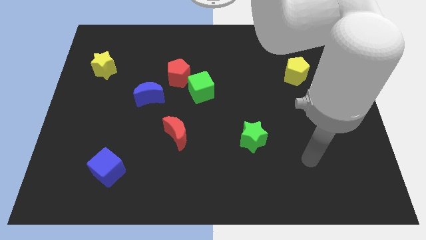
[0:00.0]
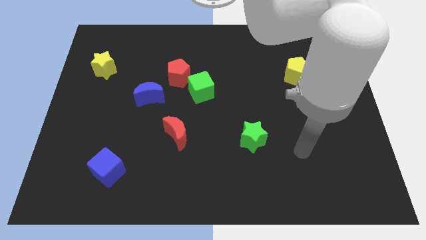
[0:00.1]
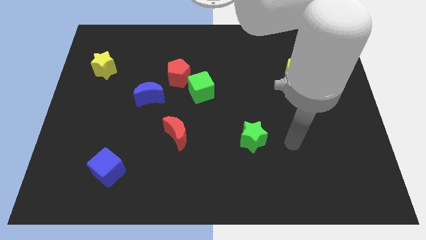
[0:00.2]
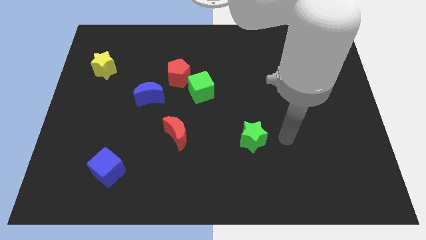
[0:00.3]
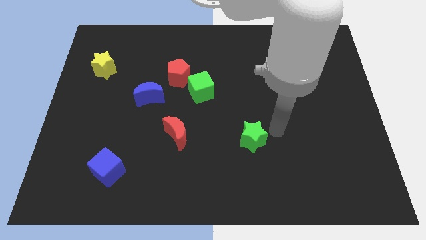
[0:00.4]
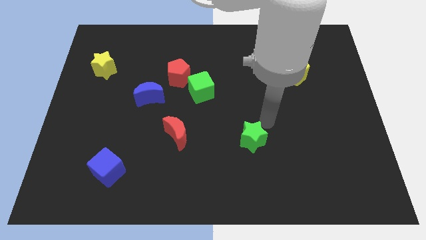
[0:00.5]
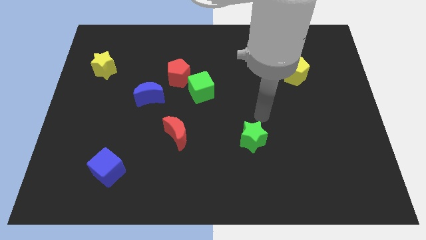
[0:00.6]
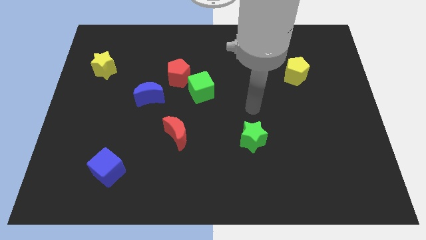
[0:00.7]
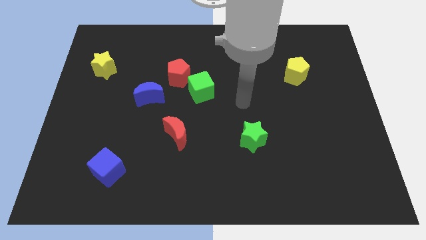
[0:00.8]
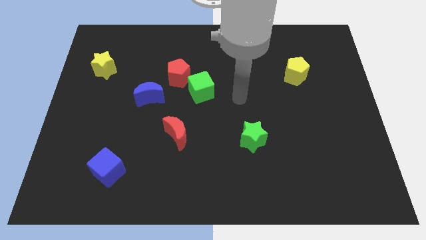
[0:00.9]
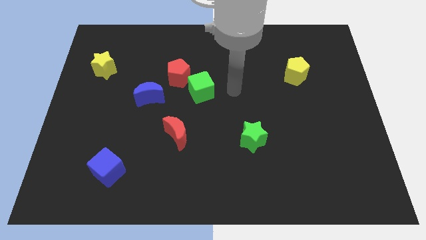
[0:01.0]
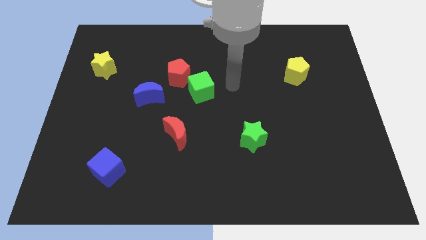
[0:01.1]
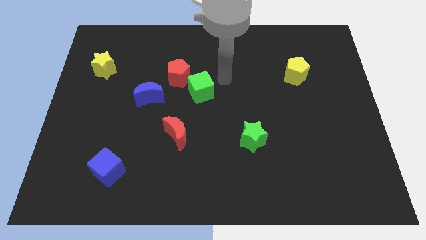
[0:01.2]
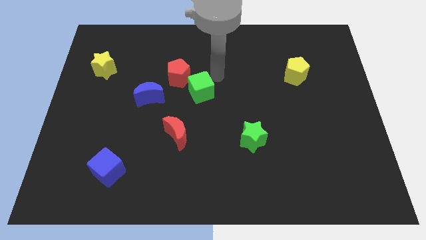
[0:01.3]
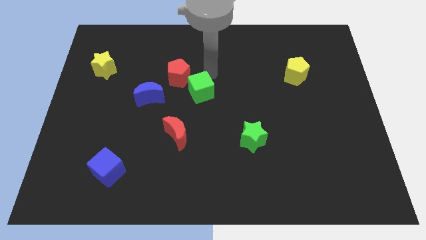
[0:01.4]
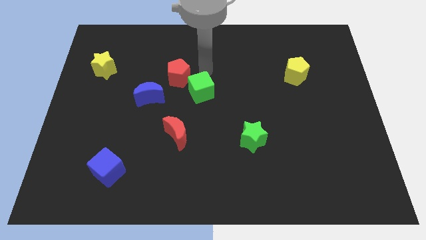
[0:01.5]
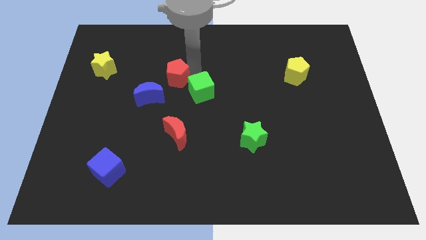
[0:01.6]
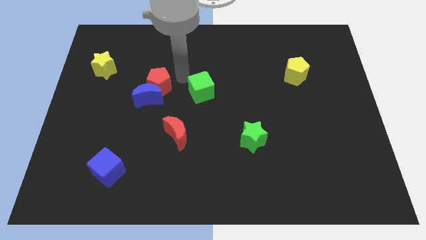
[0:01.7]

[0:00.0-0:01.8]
separate the green cube from the red pentagon

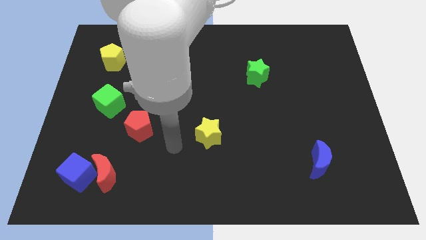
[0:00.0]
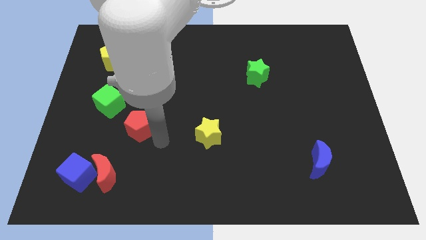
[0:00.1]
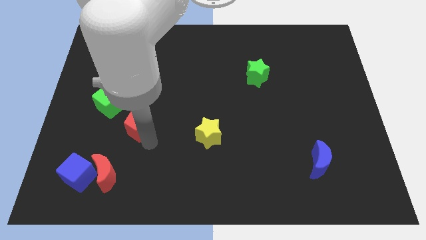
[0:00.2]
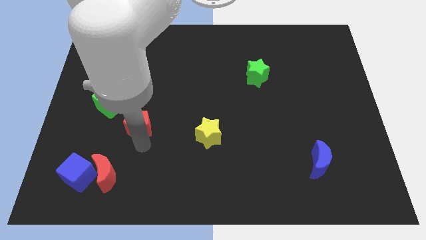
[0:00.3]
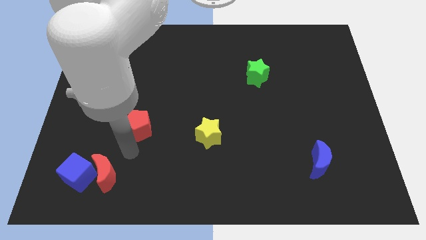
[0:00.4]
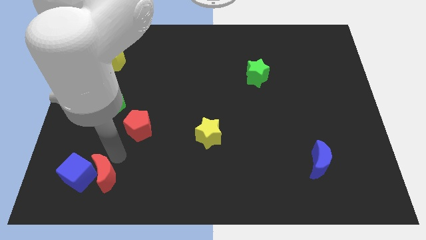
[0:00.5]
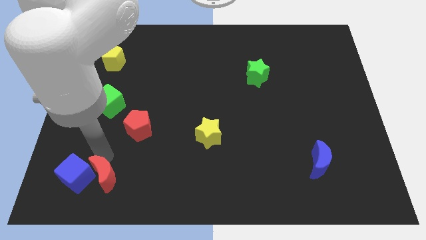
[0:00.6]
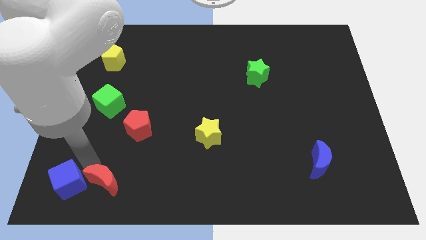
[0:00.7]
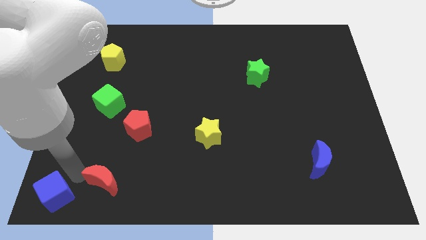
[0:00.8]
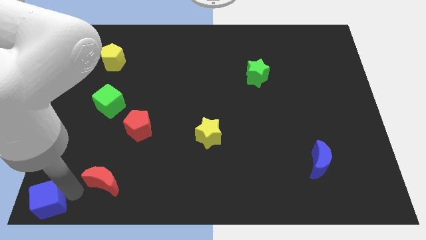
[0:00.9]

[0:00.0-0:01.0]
pull the red moon apart from the blue cube

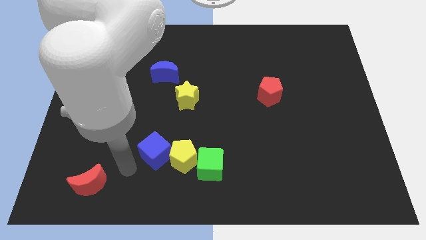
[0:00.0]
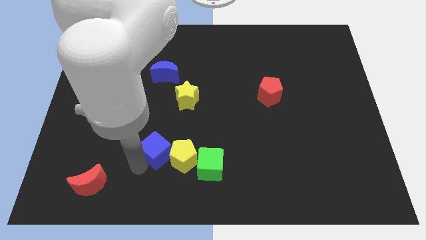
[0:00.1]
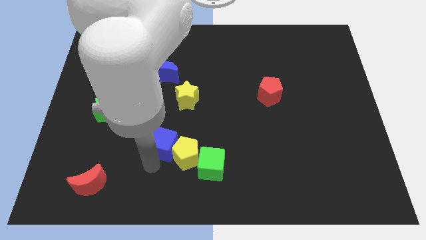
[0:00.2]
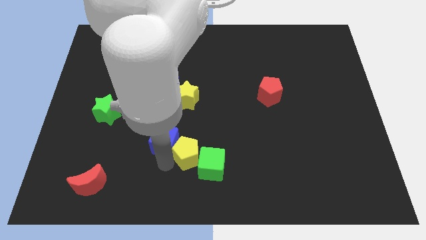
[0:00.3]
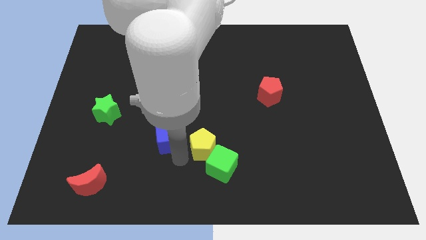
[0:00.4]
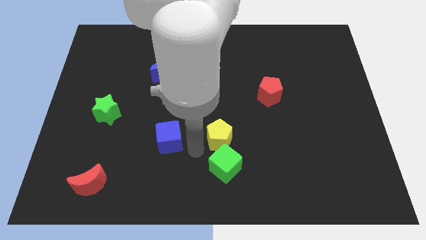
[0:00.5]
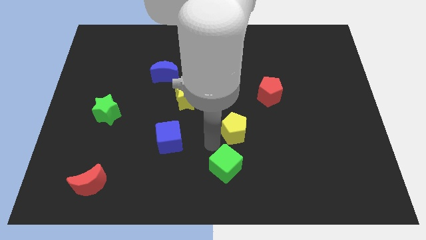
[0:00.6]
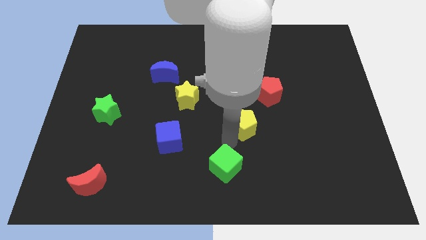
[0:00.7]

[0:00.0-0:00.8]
pull the green cube apart from the yellow pentagon

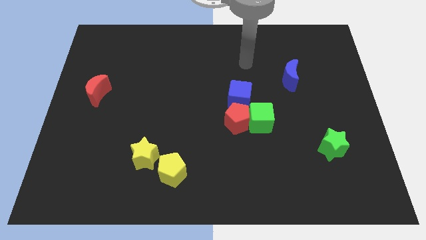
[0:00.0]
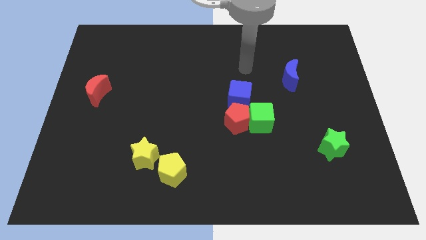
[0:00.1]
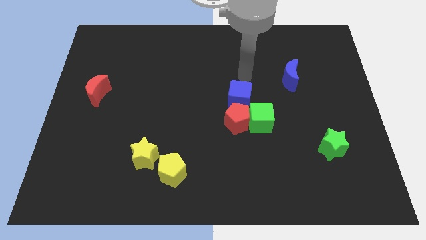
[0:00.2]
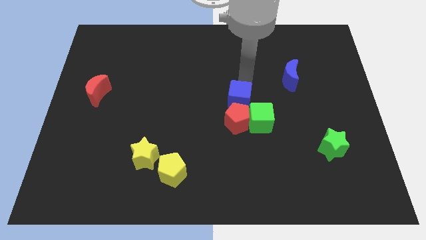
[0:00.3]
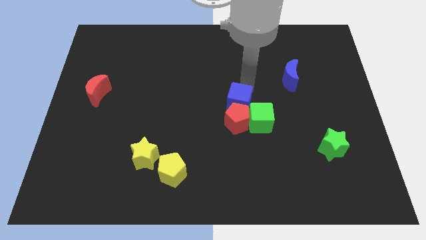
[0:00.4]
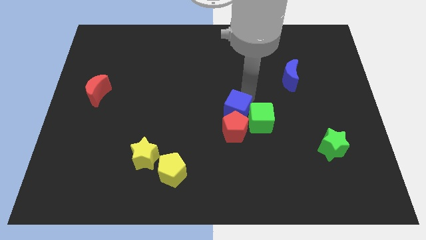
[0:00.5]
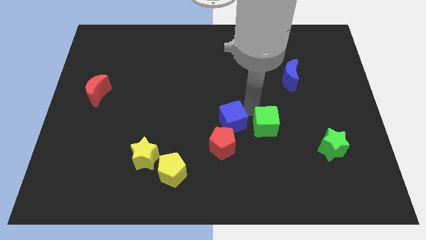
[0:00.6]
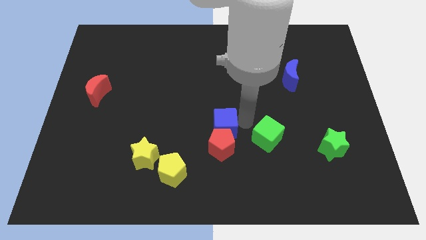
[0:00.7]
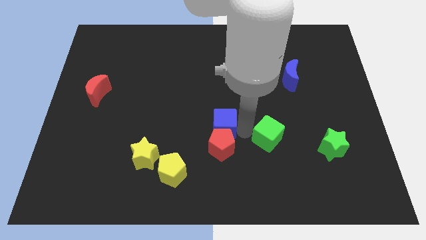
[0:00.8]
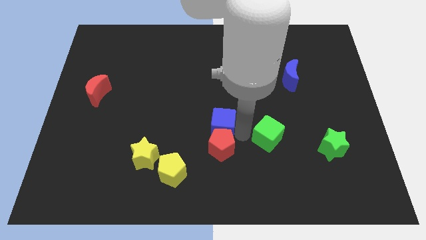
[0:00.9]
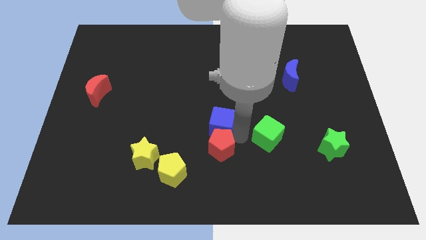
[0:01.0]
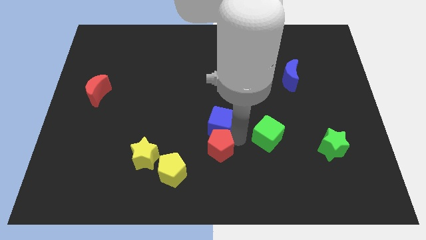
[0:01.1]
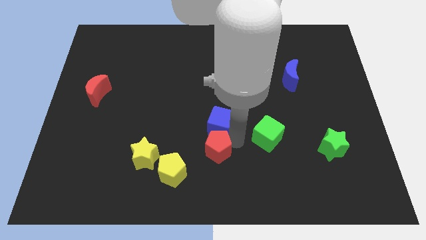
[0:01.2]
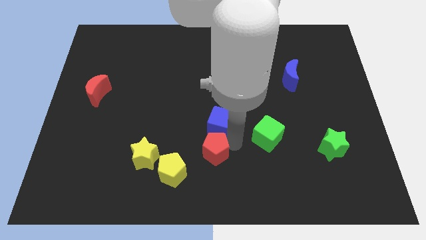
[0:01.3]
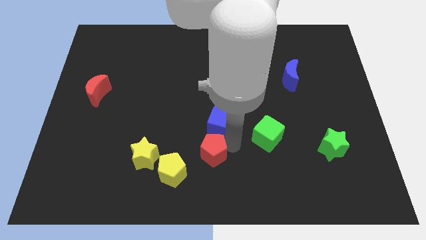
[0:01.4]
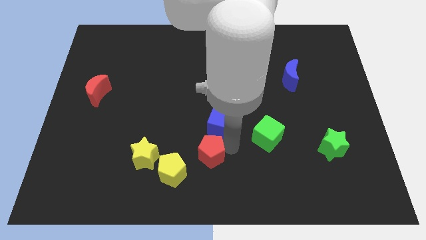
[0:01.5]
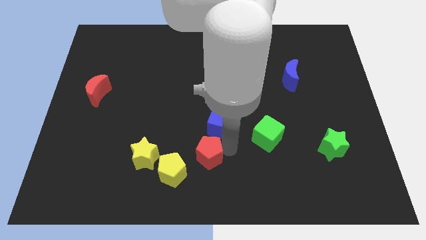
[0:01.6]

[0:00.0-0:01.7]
pull the red pentagon apart from the green cube and blue cube

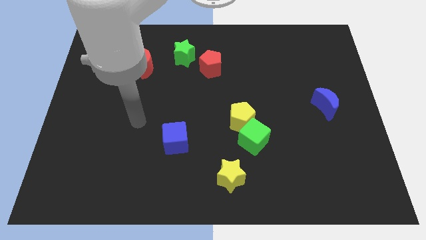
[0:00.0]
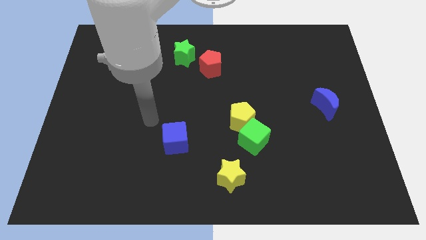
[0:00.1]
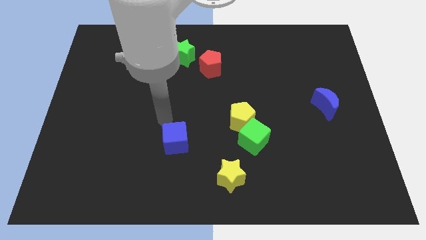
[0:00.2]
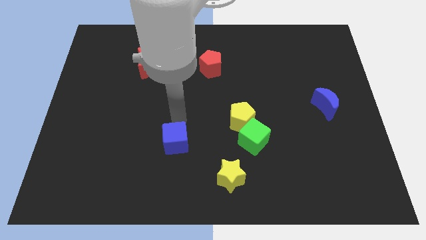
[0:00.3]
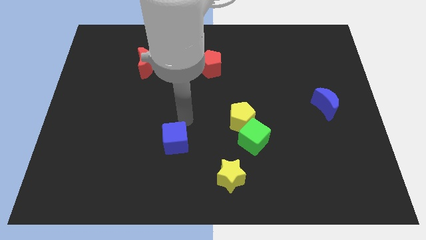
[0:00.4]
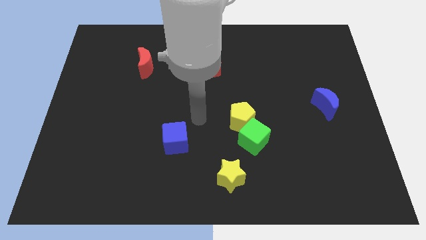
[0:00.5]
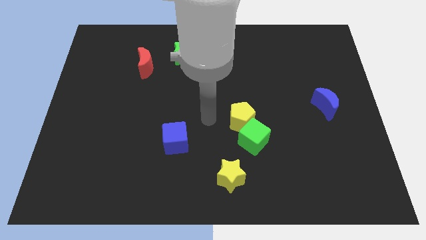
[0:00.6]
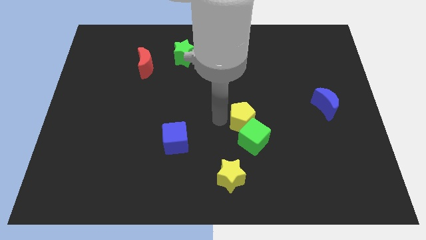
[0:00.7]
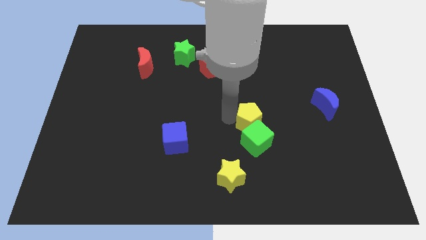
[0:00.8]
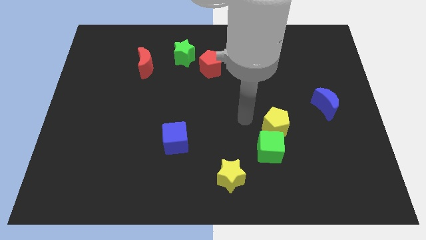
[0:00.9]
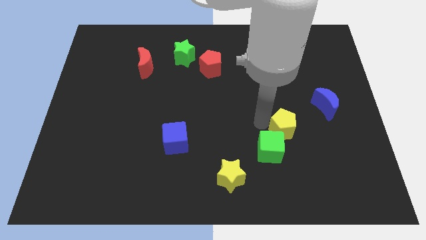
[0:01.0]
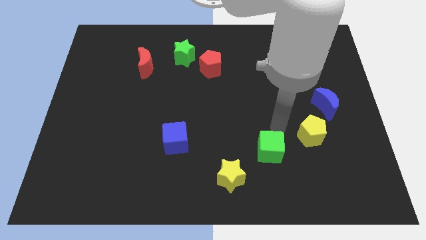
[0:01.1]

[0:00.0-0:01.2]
separate the green cube from the yellow pentagon

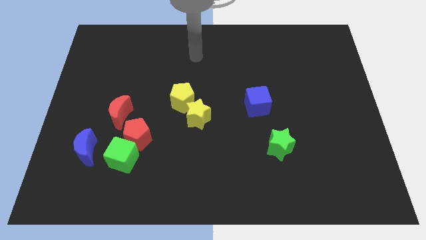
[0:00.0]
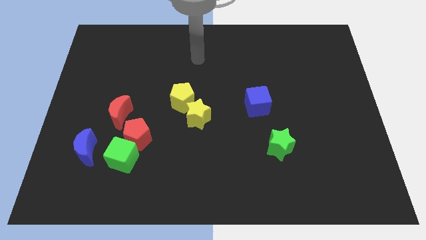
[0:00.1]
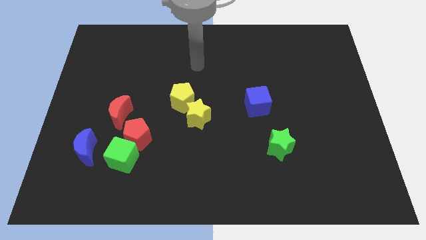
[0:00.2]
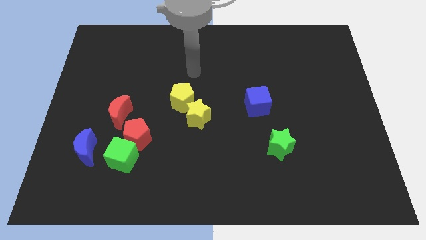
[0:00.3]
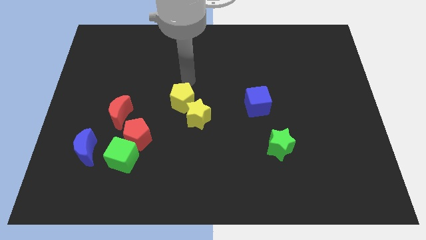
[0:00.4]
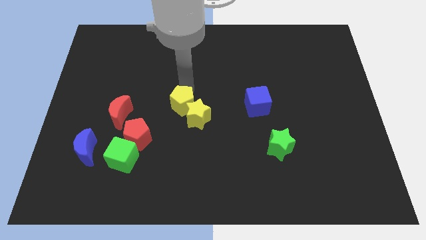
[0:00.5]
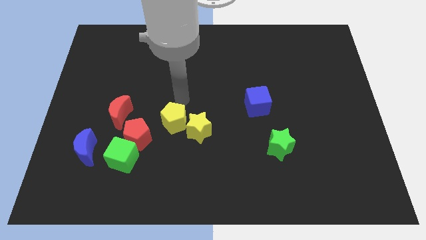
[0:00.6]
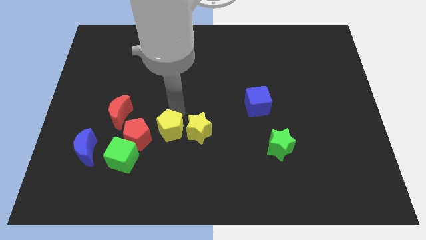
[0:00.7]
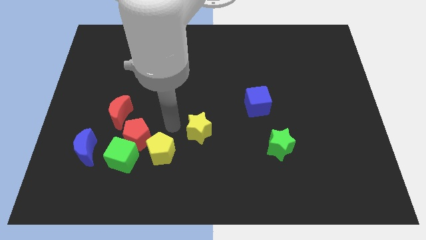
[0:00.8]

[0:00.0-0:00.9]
separate the yellow star from the yellow pentagon

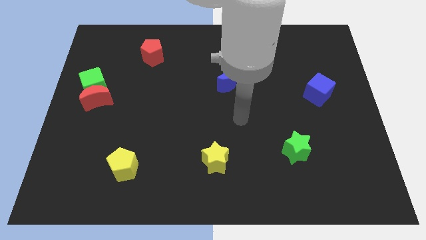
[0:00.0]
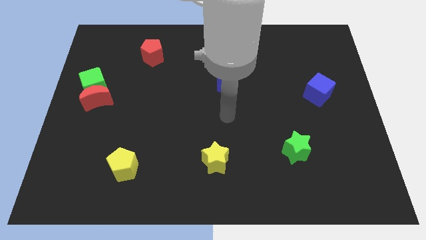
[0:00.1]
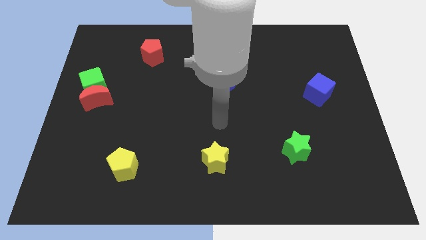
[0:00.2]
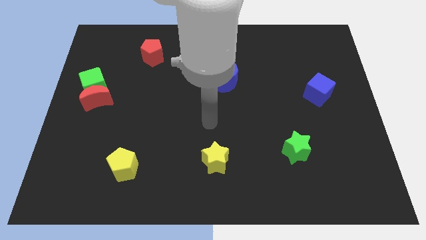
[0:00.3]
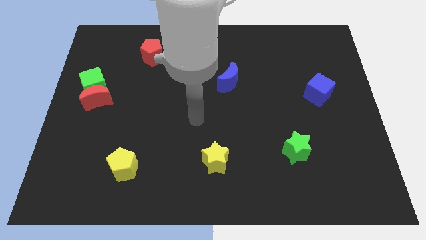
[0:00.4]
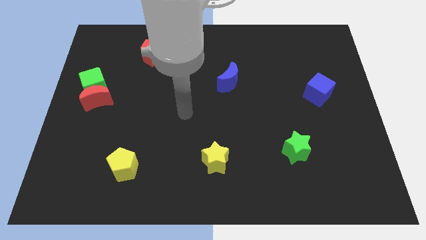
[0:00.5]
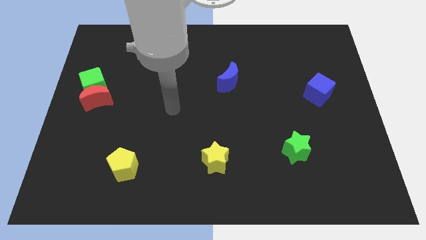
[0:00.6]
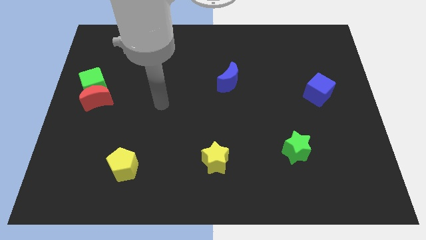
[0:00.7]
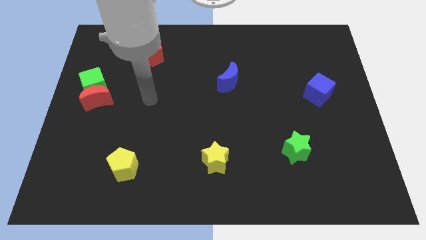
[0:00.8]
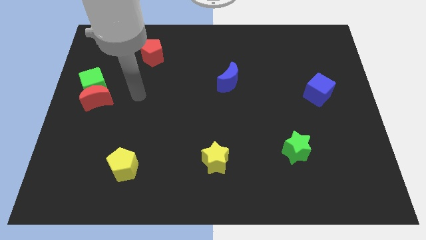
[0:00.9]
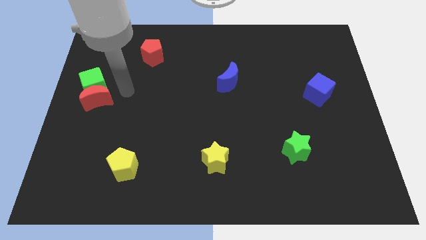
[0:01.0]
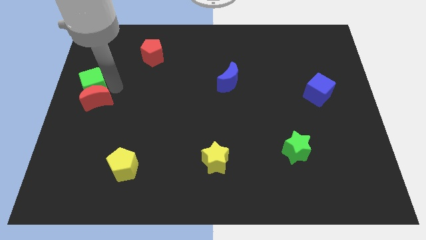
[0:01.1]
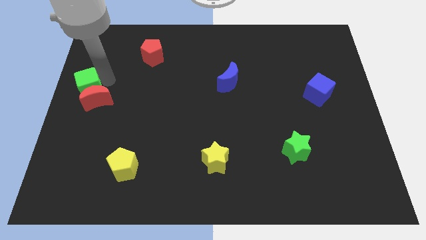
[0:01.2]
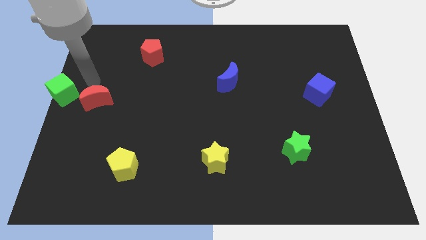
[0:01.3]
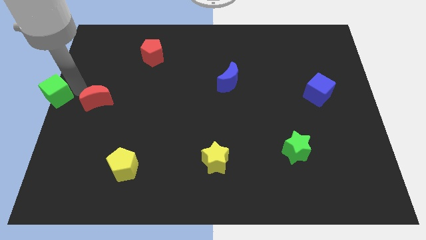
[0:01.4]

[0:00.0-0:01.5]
pull the red moon apart from the green cube
